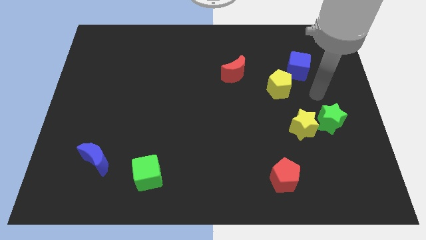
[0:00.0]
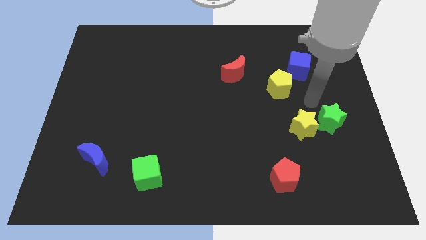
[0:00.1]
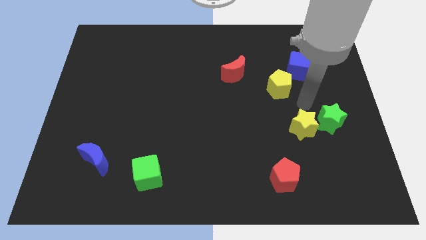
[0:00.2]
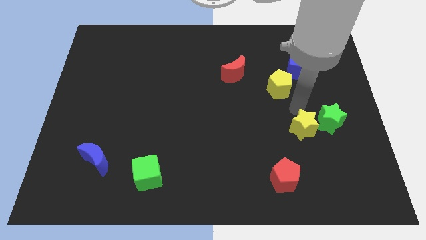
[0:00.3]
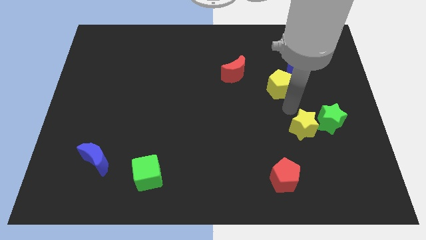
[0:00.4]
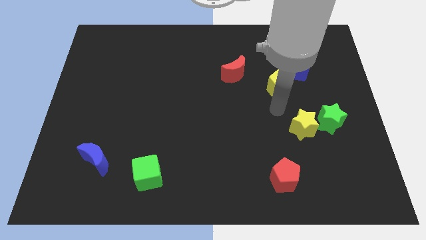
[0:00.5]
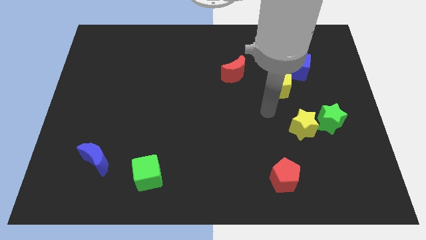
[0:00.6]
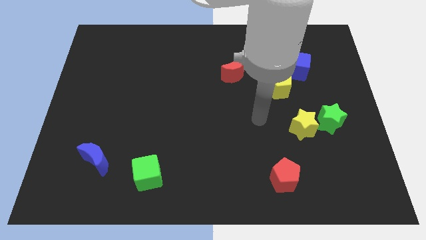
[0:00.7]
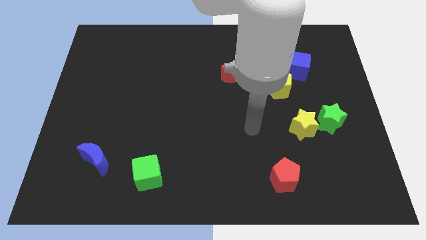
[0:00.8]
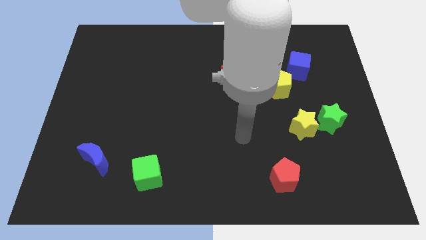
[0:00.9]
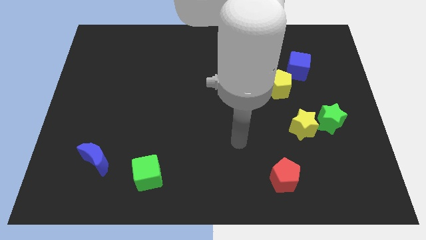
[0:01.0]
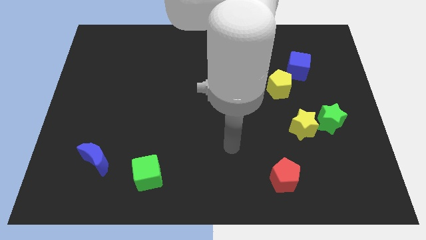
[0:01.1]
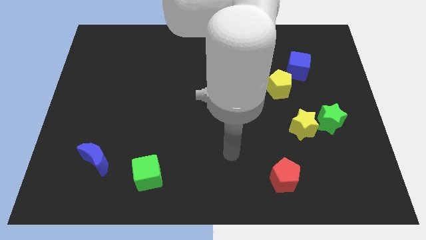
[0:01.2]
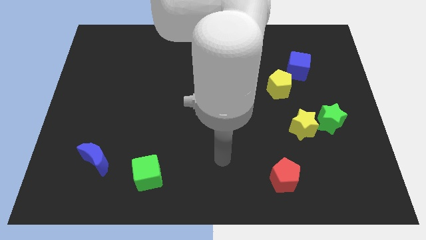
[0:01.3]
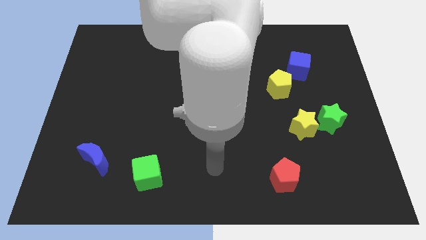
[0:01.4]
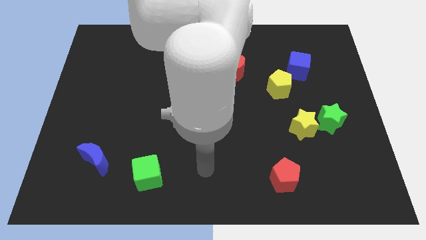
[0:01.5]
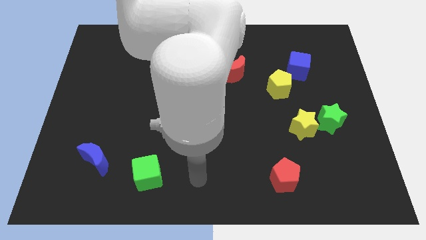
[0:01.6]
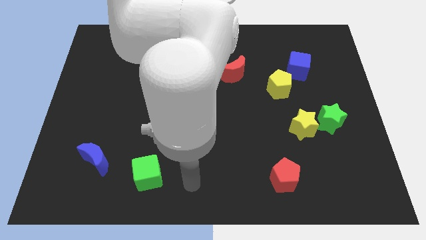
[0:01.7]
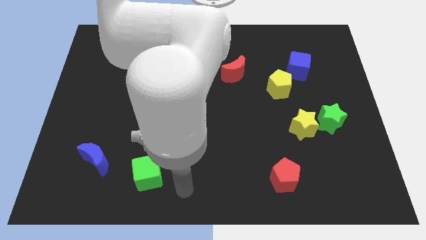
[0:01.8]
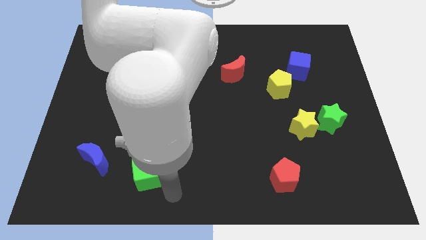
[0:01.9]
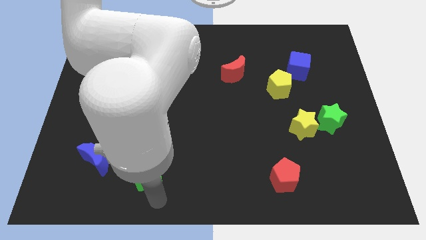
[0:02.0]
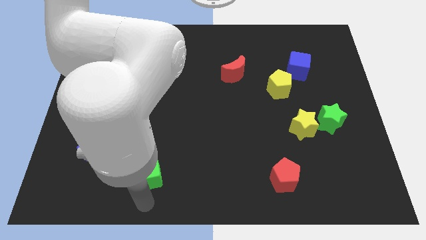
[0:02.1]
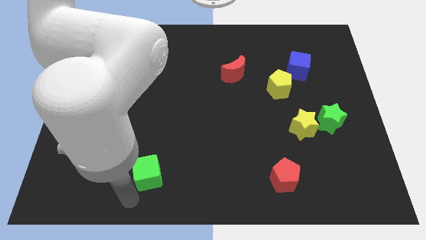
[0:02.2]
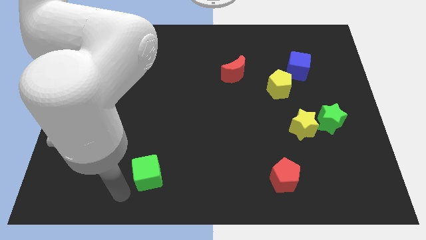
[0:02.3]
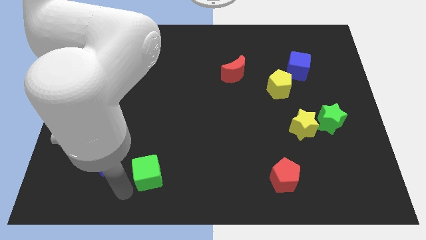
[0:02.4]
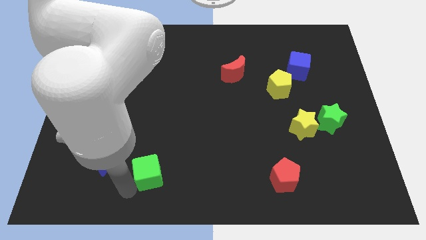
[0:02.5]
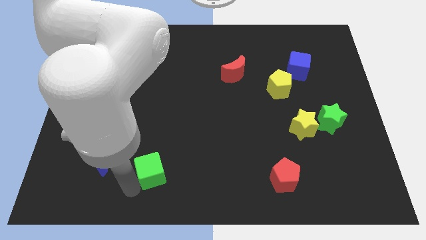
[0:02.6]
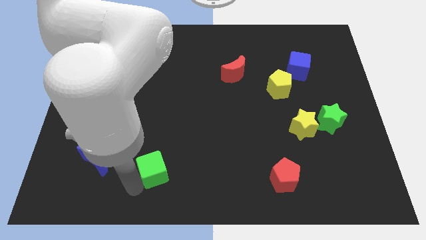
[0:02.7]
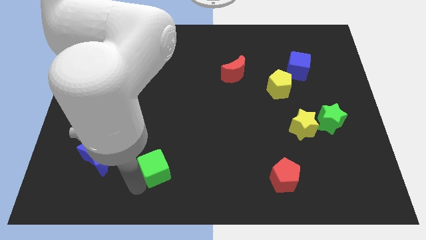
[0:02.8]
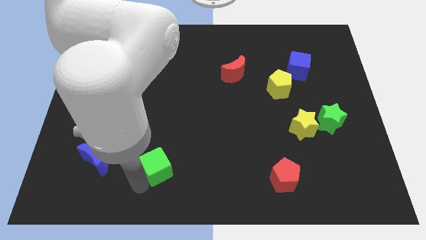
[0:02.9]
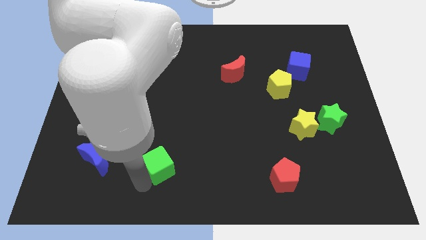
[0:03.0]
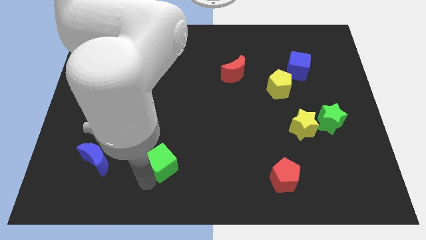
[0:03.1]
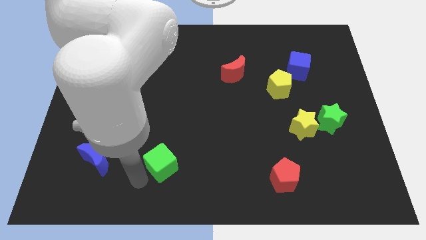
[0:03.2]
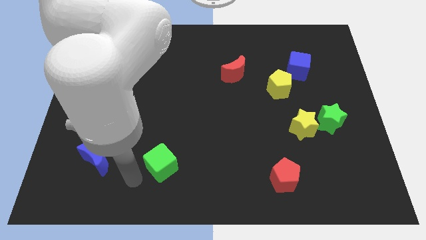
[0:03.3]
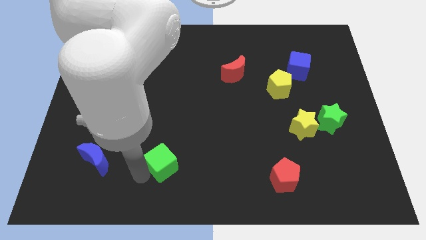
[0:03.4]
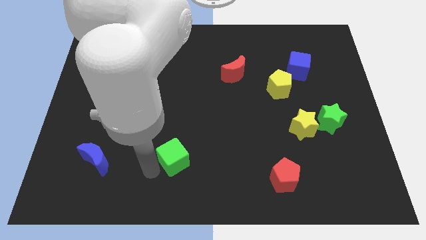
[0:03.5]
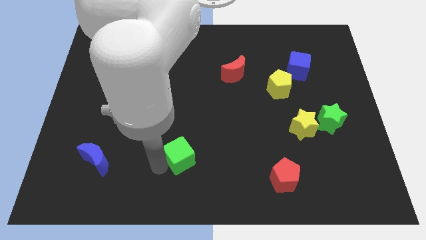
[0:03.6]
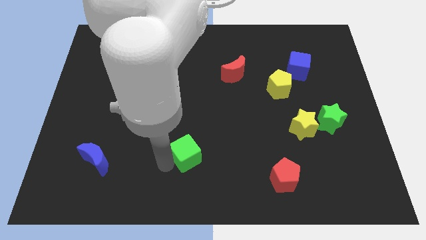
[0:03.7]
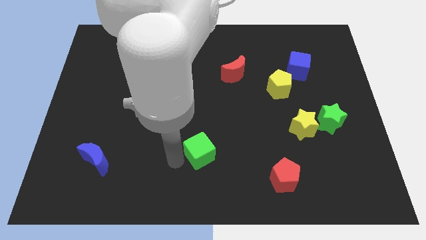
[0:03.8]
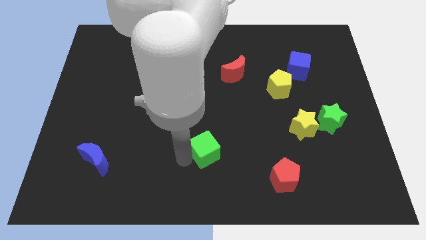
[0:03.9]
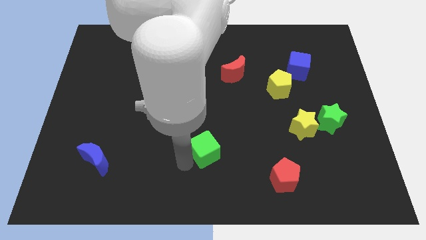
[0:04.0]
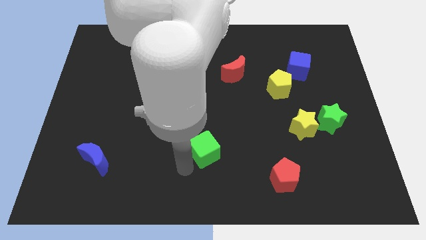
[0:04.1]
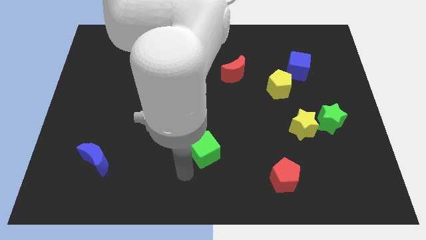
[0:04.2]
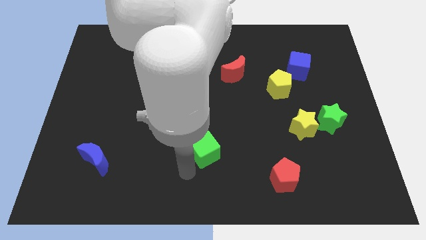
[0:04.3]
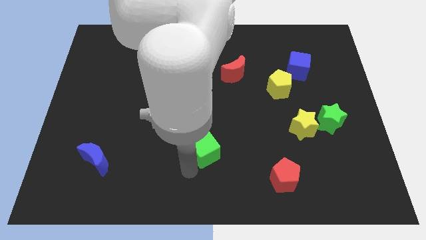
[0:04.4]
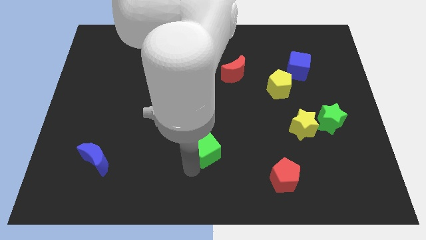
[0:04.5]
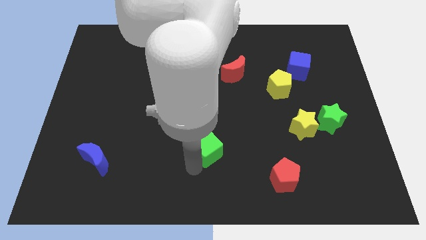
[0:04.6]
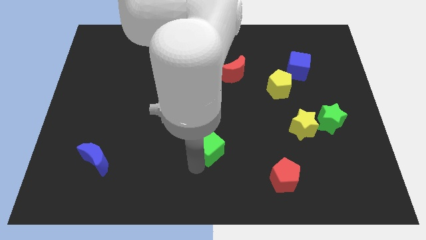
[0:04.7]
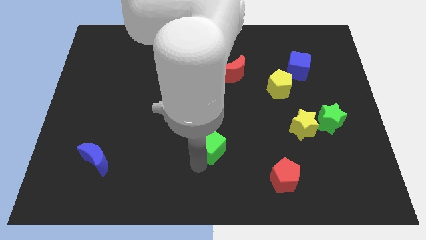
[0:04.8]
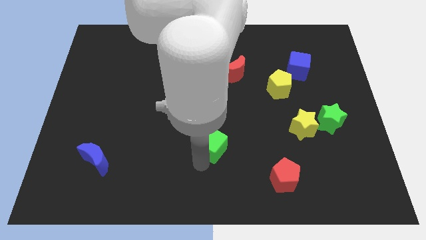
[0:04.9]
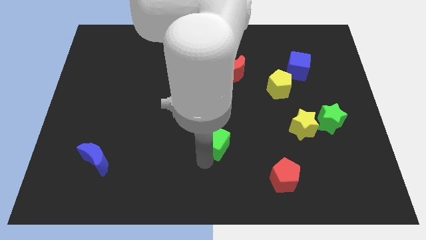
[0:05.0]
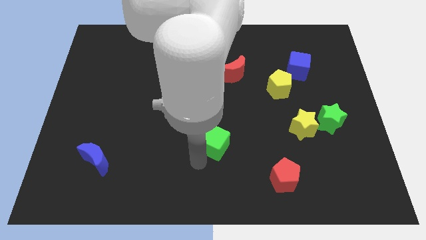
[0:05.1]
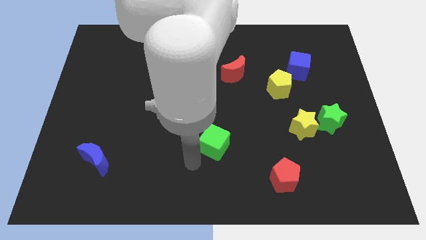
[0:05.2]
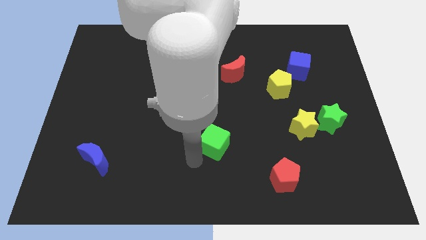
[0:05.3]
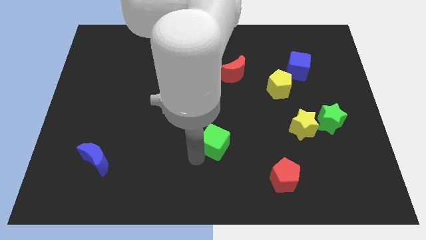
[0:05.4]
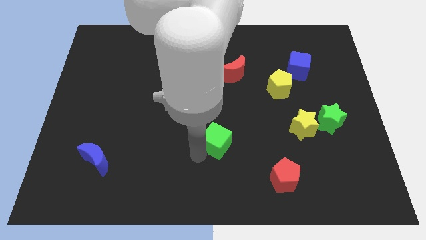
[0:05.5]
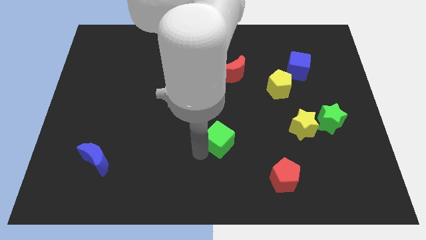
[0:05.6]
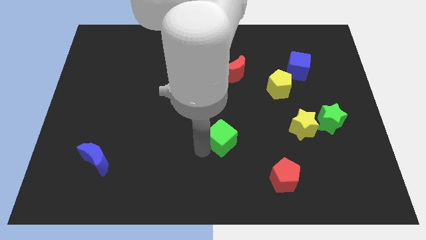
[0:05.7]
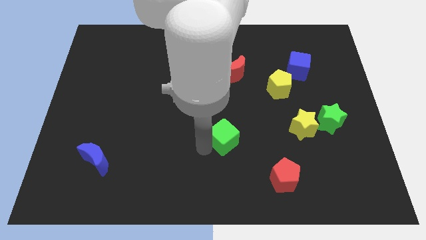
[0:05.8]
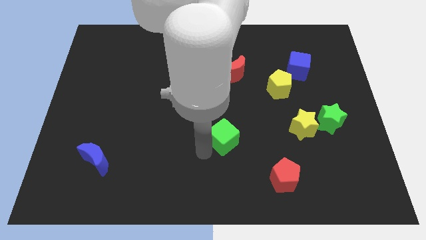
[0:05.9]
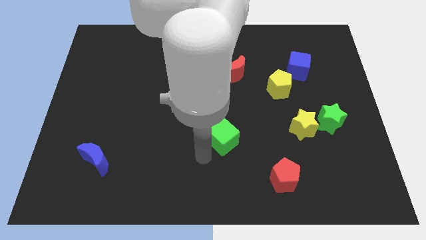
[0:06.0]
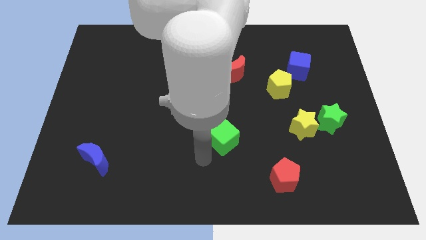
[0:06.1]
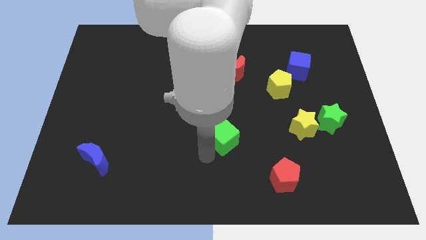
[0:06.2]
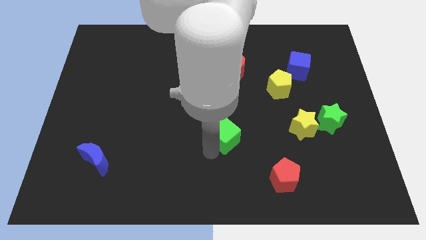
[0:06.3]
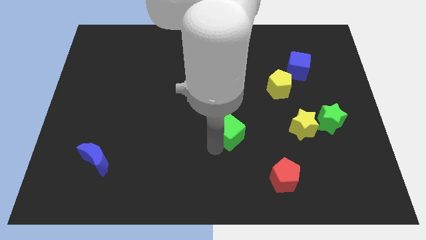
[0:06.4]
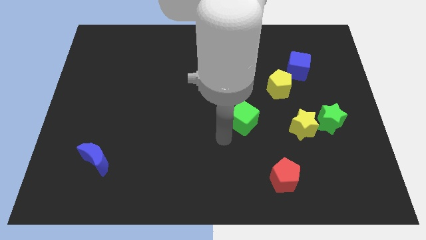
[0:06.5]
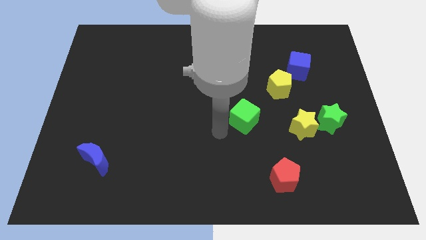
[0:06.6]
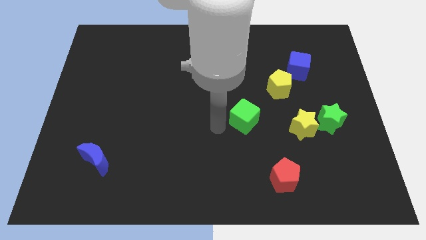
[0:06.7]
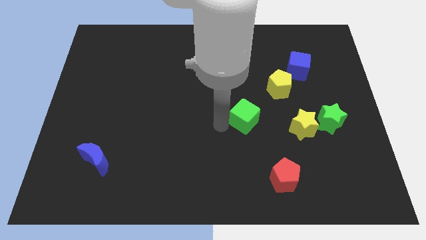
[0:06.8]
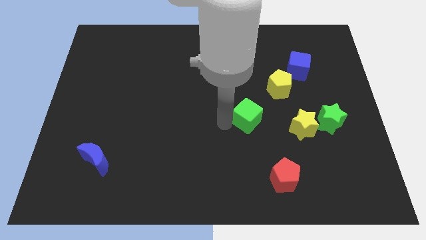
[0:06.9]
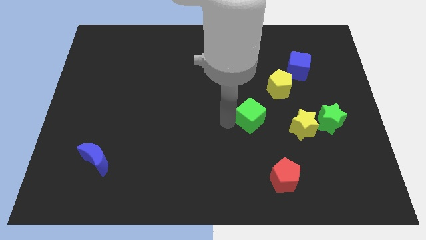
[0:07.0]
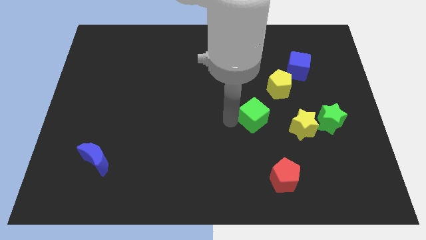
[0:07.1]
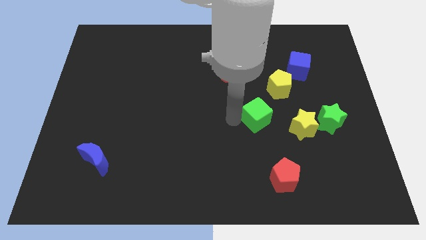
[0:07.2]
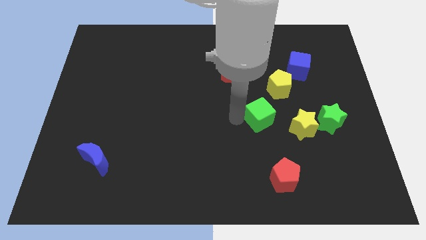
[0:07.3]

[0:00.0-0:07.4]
move the green cube to the top left of the yellow star
